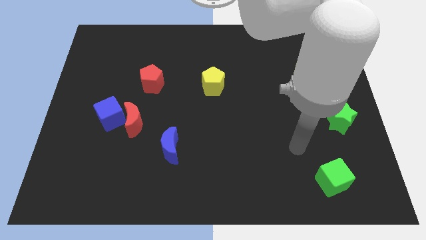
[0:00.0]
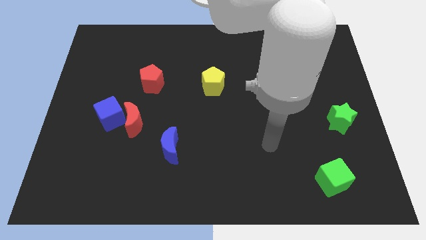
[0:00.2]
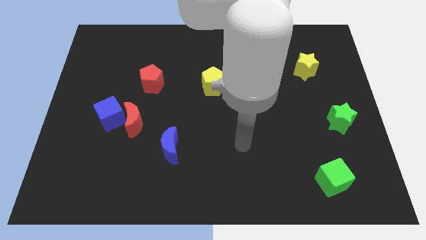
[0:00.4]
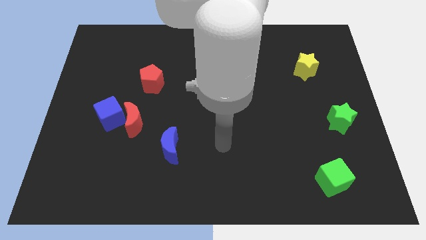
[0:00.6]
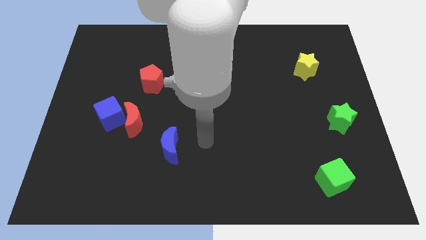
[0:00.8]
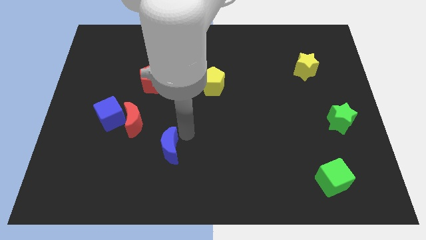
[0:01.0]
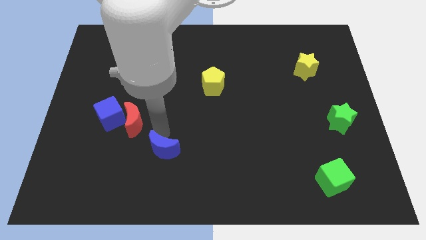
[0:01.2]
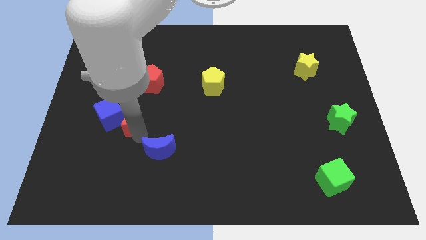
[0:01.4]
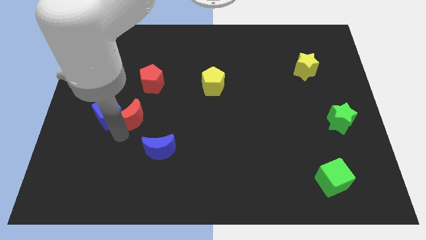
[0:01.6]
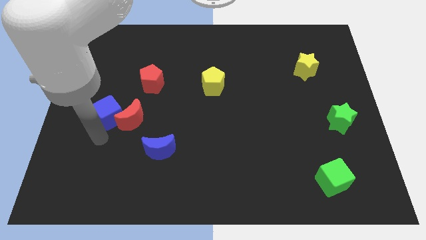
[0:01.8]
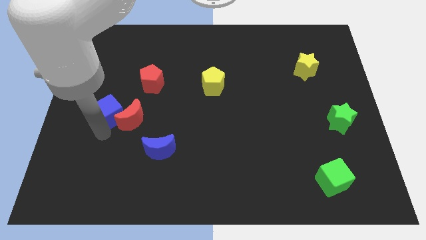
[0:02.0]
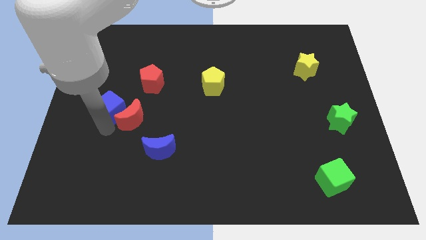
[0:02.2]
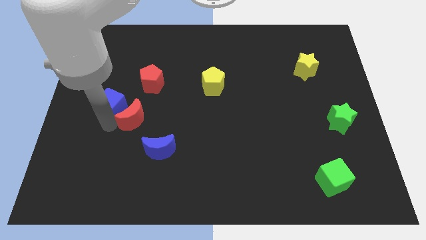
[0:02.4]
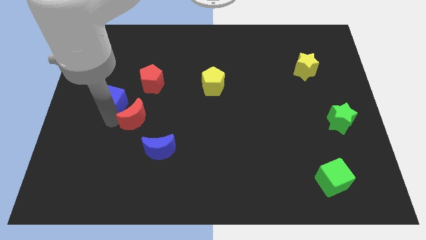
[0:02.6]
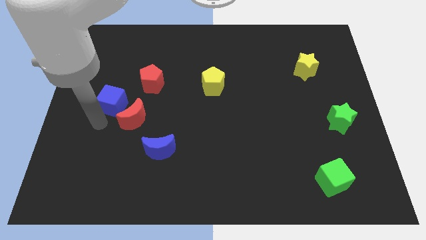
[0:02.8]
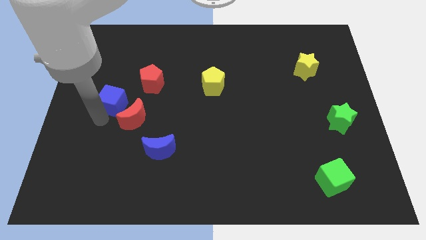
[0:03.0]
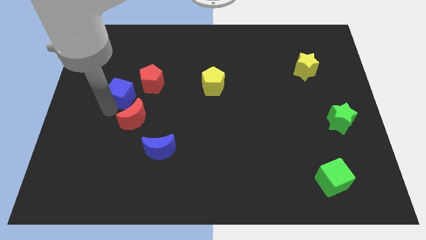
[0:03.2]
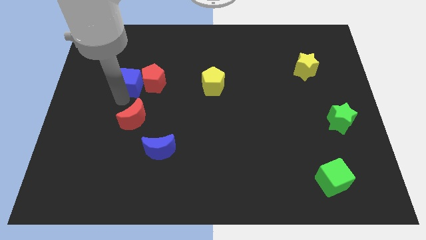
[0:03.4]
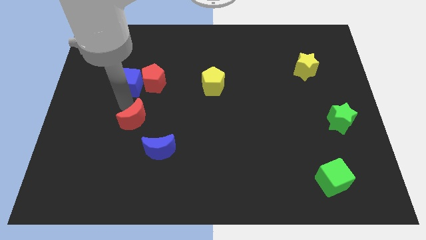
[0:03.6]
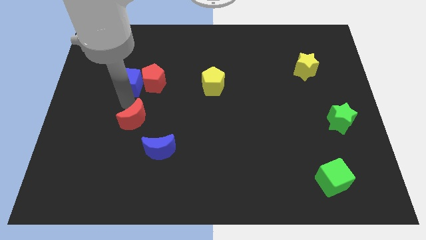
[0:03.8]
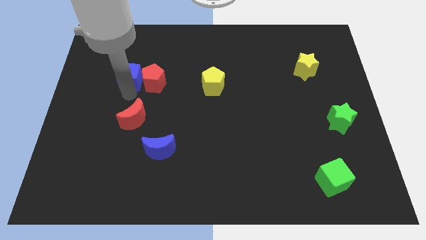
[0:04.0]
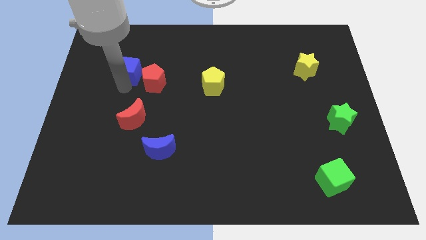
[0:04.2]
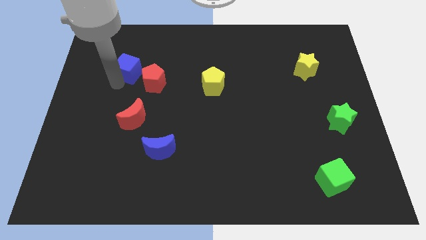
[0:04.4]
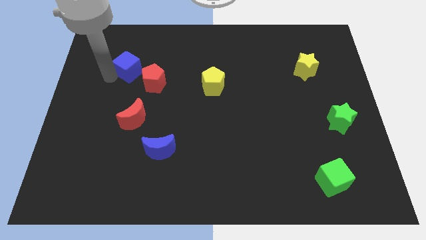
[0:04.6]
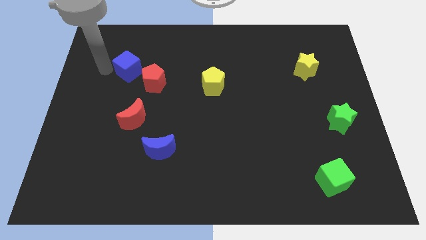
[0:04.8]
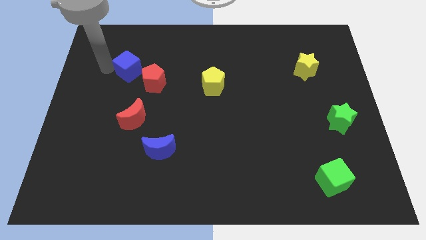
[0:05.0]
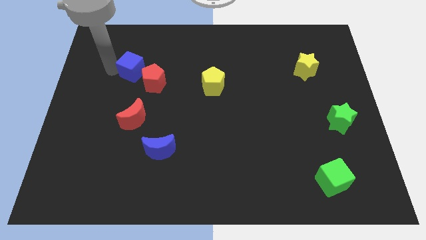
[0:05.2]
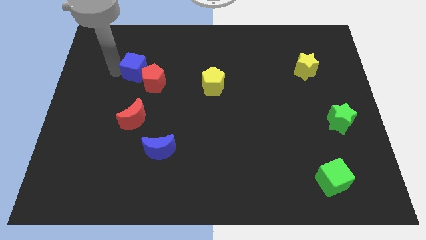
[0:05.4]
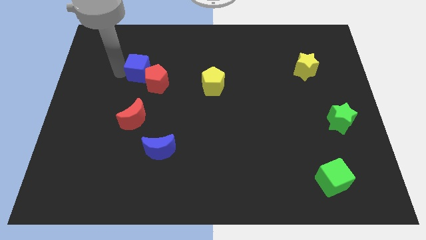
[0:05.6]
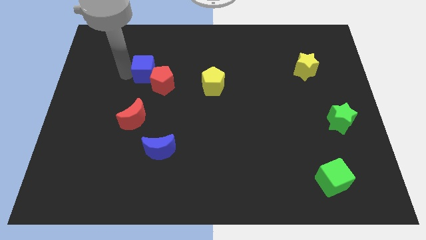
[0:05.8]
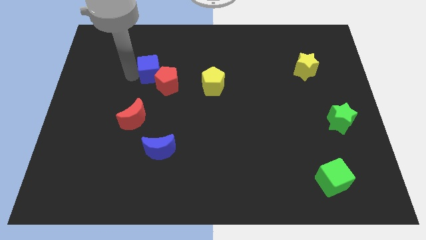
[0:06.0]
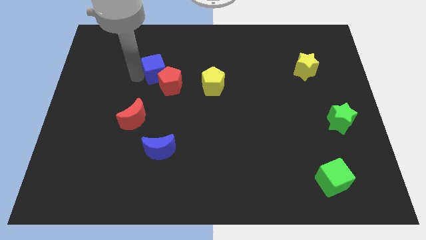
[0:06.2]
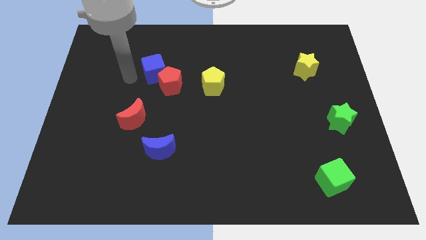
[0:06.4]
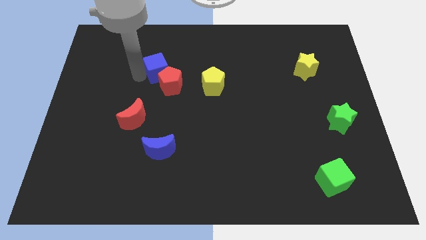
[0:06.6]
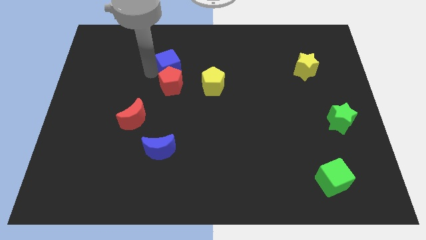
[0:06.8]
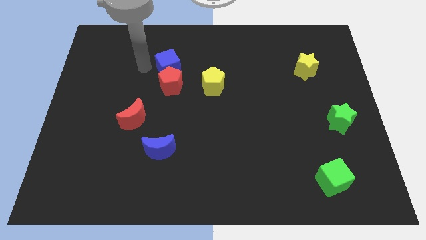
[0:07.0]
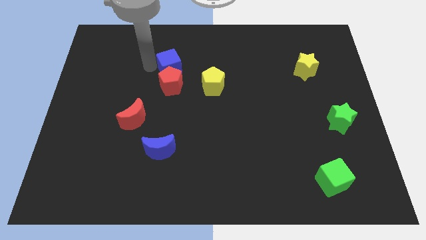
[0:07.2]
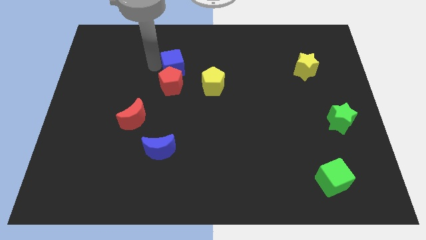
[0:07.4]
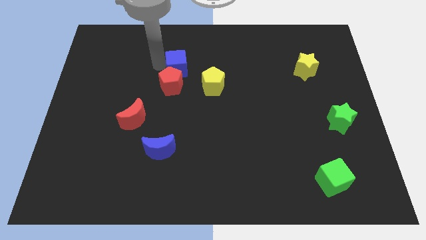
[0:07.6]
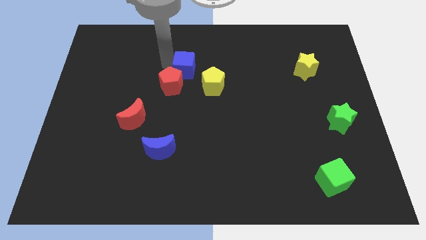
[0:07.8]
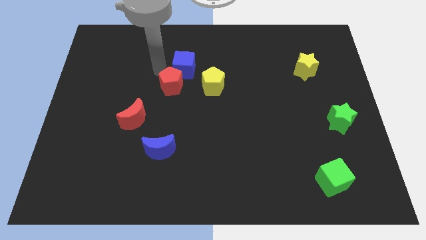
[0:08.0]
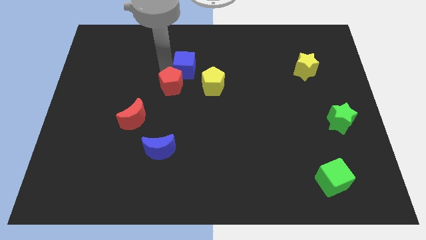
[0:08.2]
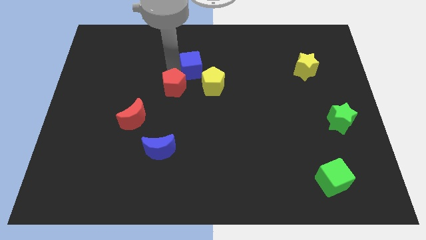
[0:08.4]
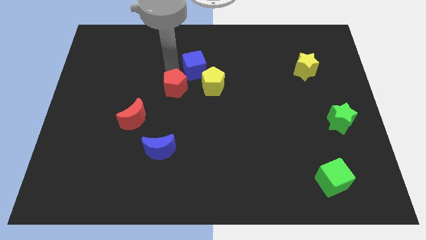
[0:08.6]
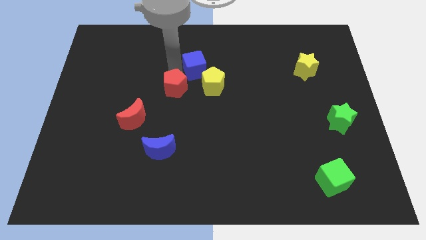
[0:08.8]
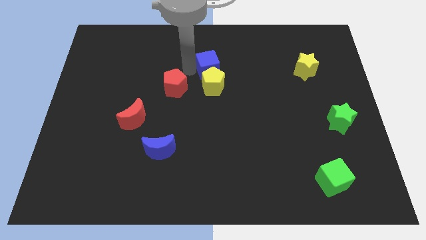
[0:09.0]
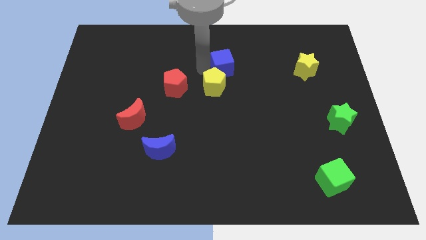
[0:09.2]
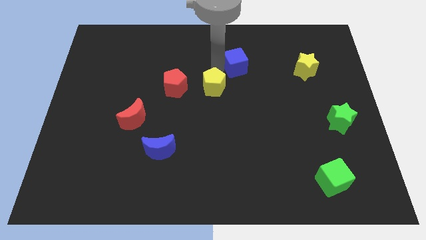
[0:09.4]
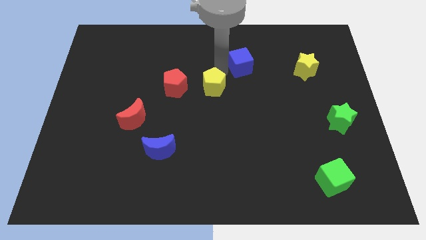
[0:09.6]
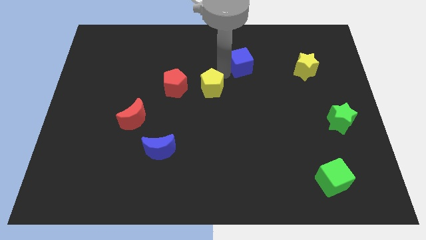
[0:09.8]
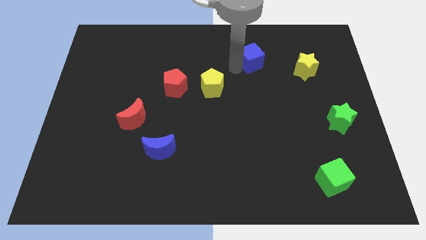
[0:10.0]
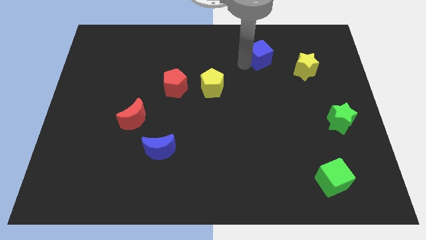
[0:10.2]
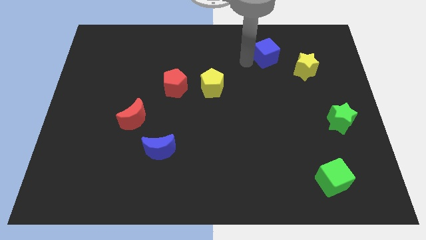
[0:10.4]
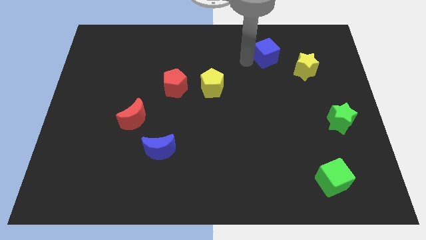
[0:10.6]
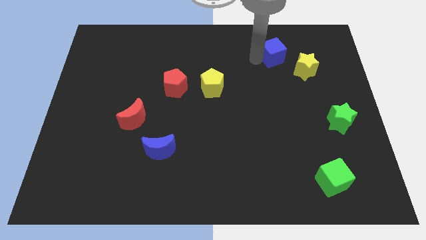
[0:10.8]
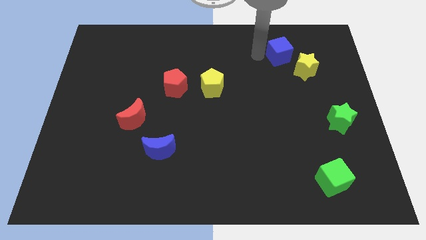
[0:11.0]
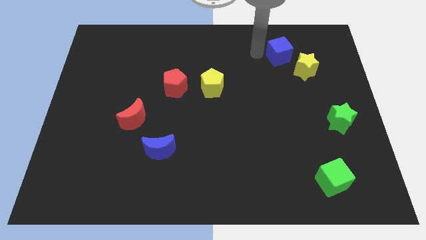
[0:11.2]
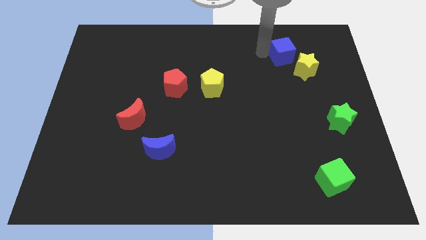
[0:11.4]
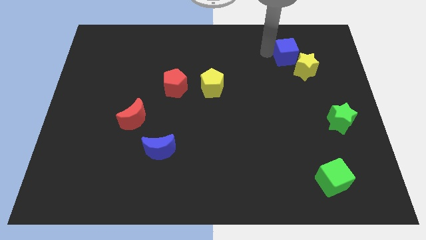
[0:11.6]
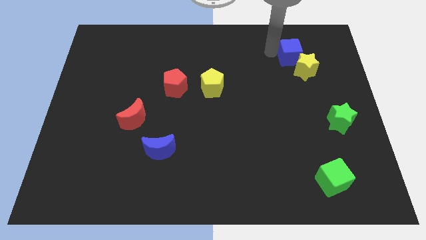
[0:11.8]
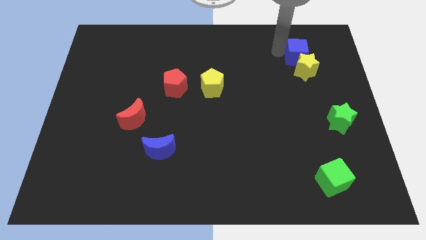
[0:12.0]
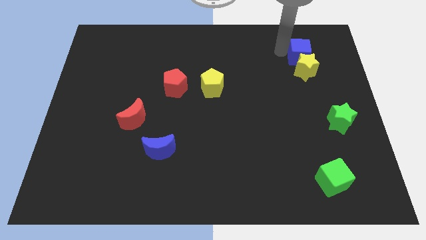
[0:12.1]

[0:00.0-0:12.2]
move the blue cube to the top right side of the yellow star
